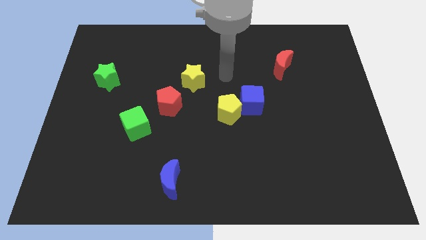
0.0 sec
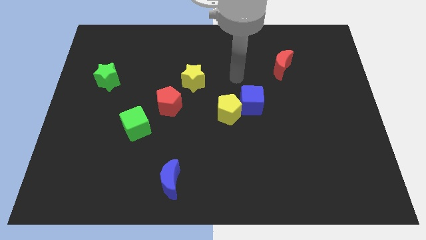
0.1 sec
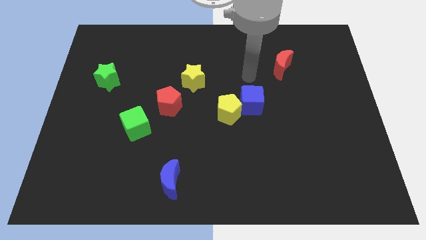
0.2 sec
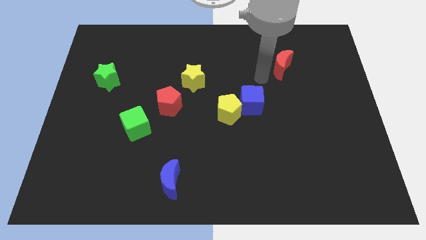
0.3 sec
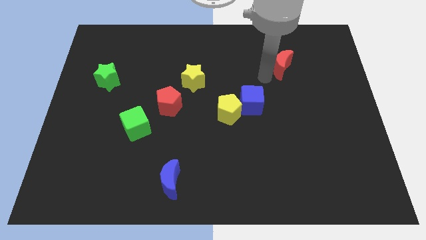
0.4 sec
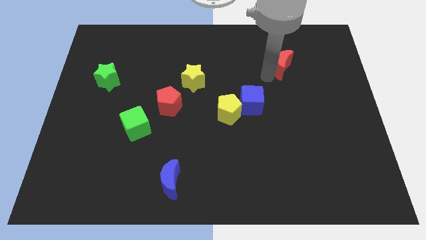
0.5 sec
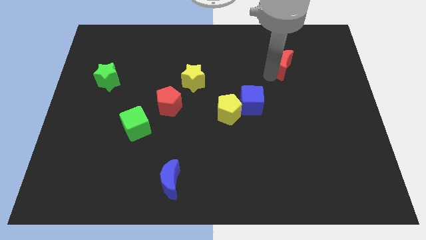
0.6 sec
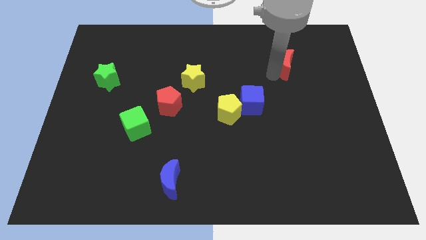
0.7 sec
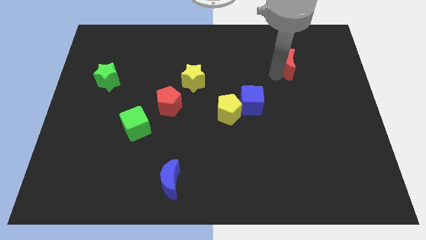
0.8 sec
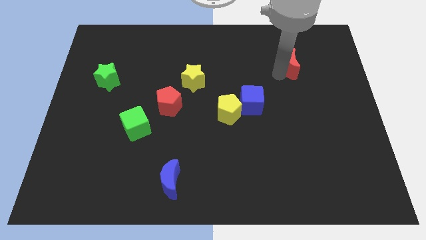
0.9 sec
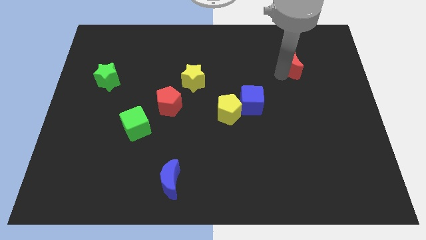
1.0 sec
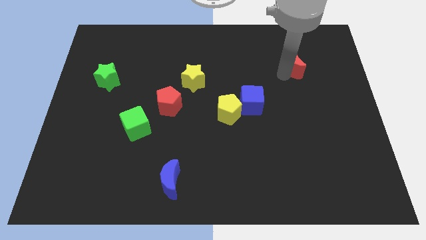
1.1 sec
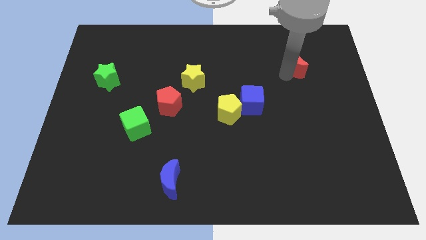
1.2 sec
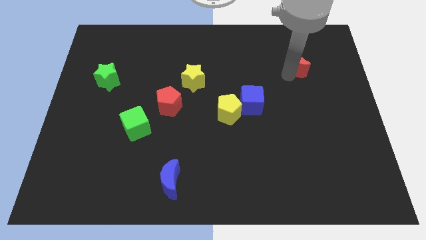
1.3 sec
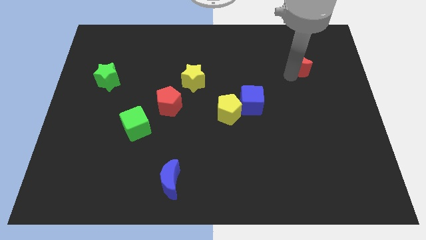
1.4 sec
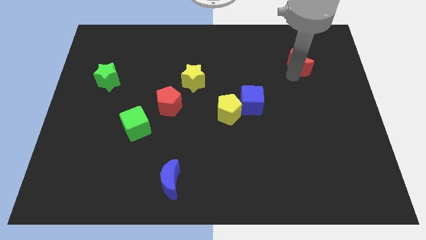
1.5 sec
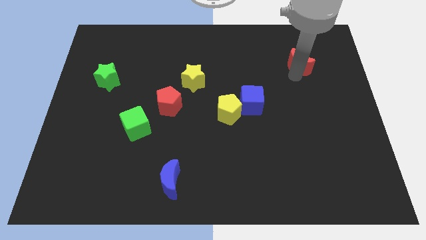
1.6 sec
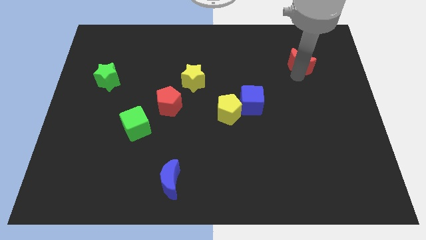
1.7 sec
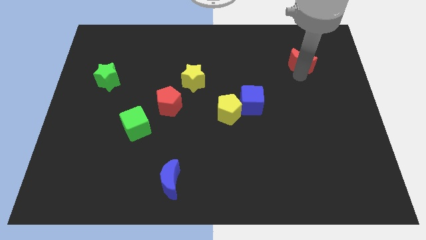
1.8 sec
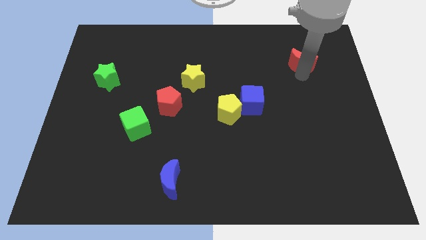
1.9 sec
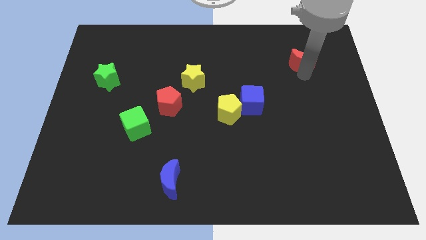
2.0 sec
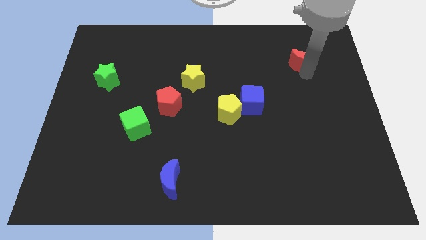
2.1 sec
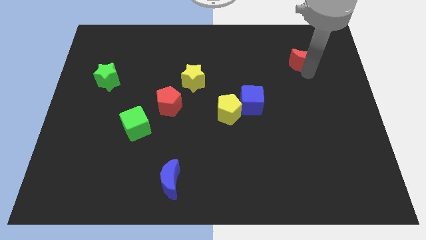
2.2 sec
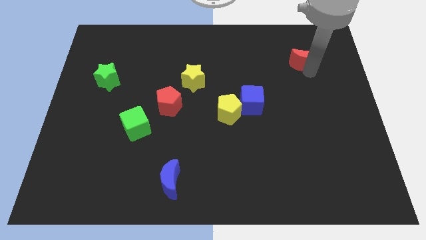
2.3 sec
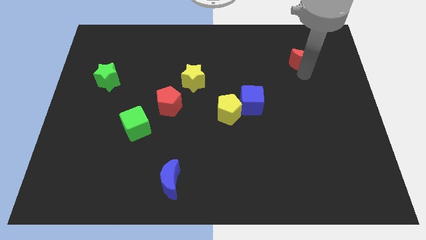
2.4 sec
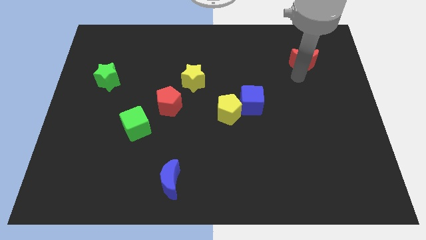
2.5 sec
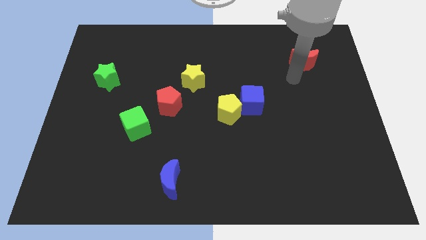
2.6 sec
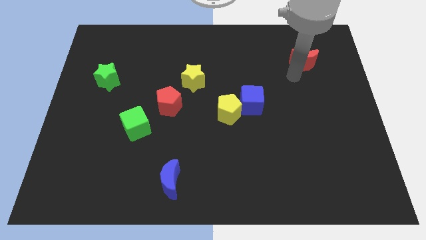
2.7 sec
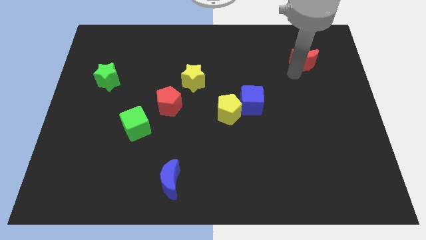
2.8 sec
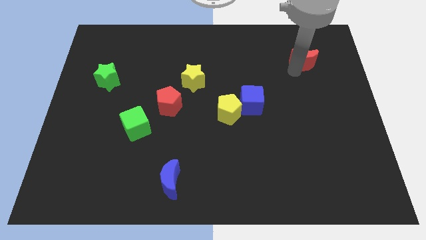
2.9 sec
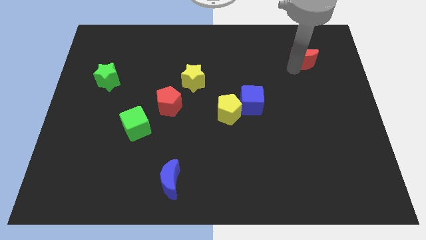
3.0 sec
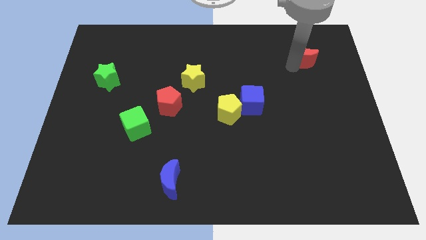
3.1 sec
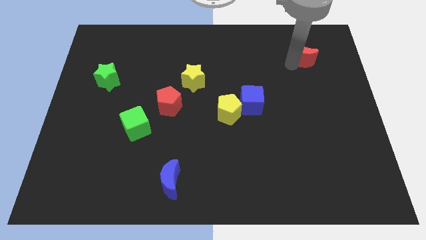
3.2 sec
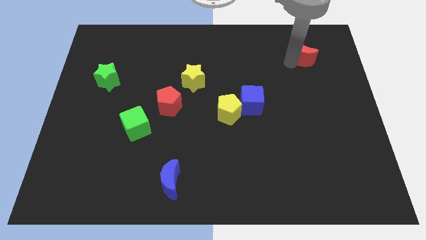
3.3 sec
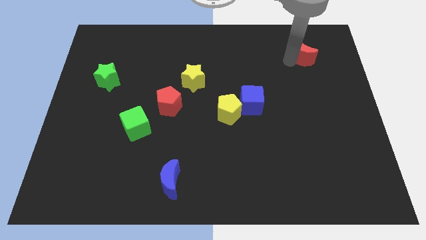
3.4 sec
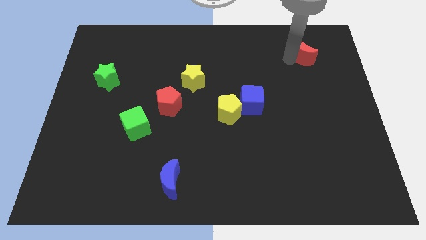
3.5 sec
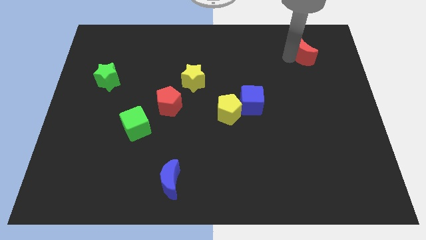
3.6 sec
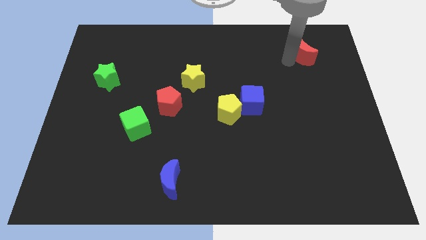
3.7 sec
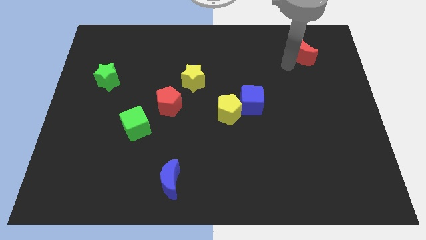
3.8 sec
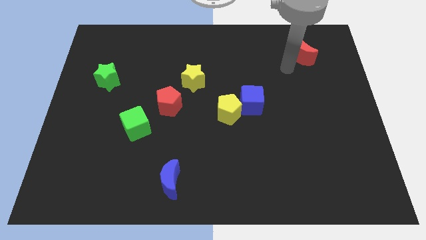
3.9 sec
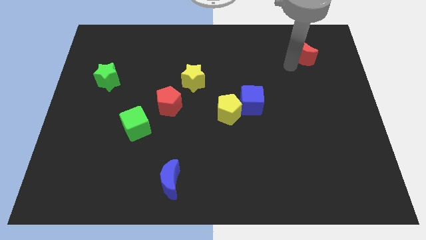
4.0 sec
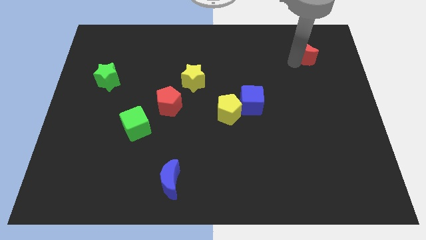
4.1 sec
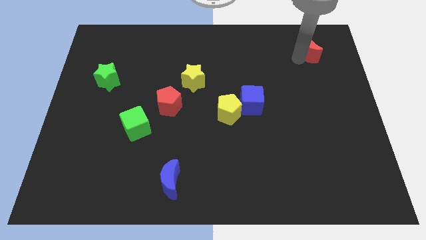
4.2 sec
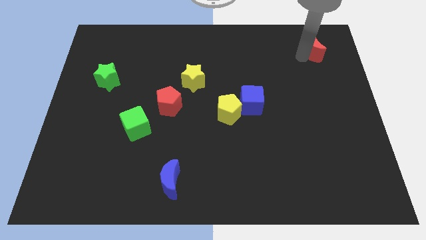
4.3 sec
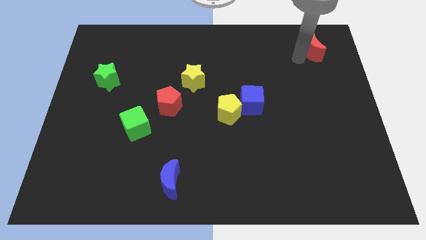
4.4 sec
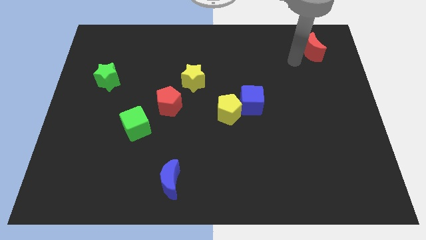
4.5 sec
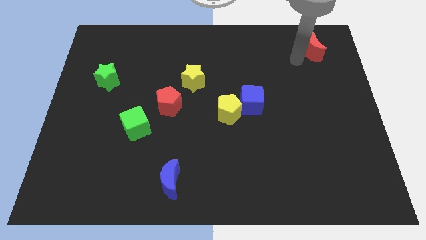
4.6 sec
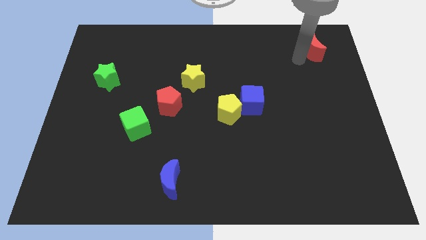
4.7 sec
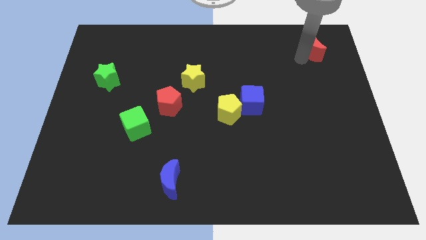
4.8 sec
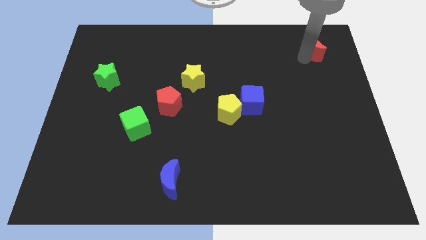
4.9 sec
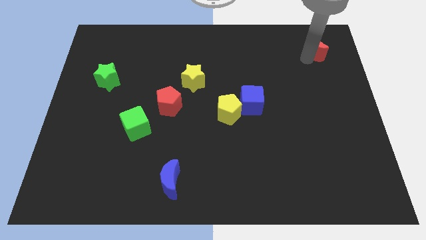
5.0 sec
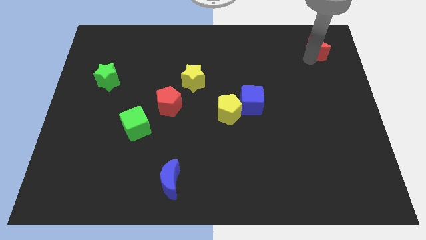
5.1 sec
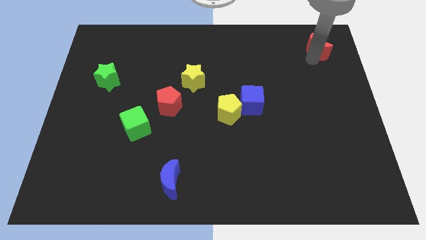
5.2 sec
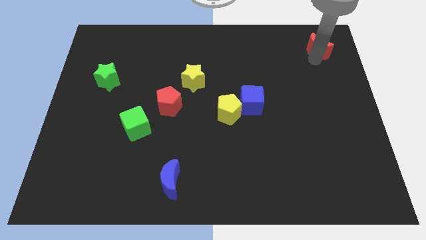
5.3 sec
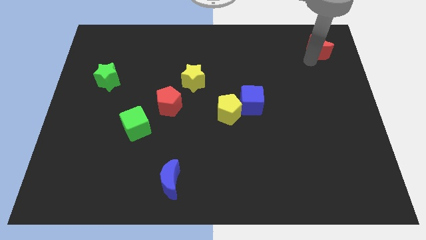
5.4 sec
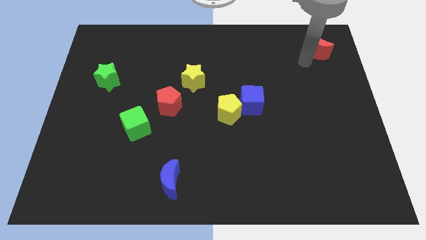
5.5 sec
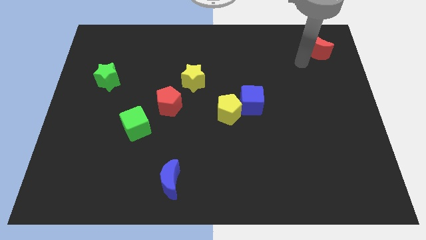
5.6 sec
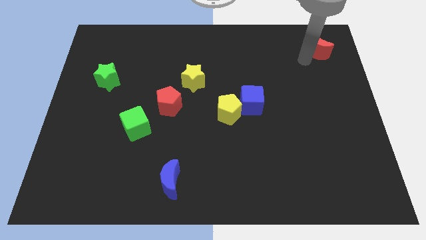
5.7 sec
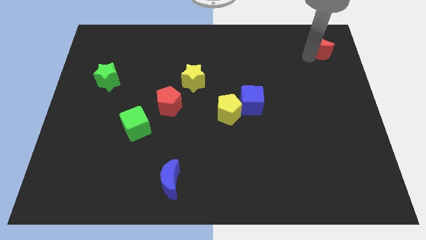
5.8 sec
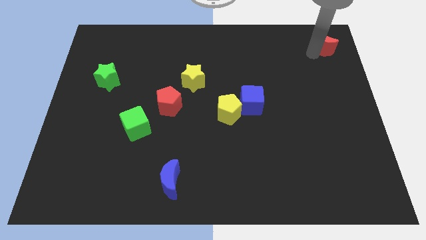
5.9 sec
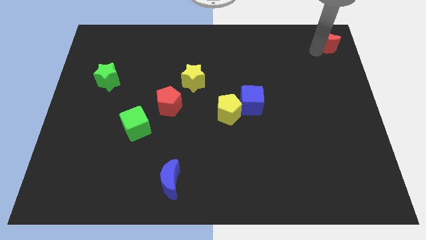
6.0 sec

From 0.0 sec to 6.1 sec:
put the red moon to the top right of the board
